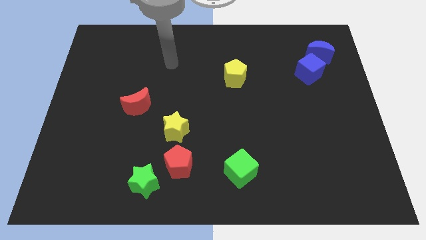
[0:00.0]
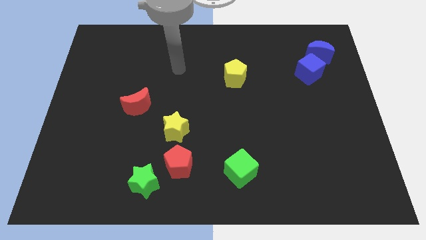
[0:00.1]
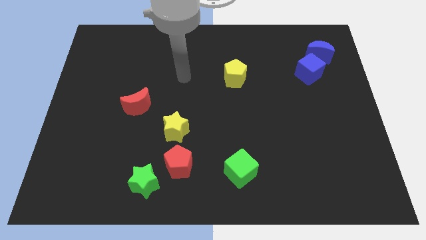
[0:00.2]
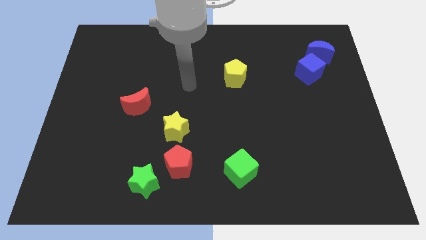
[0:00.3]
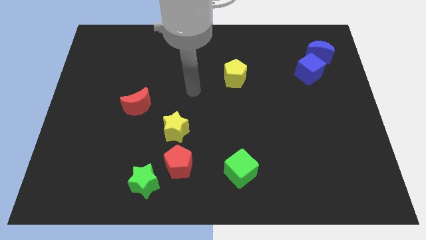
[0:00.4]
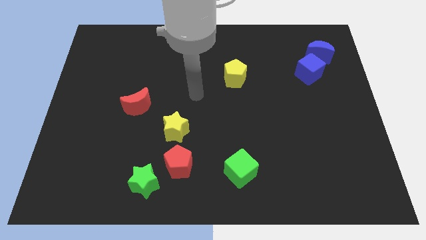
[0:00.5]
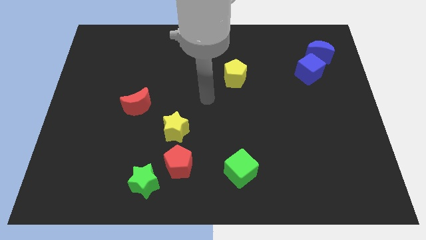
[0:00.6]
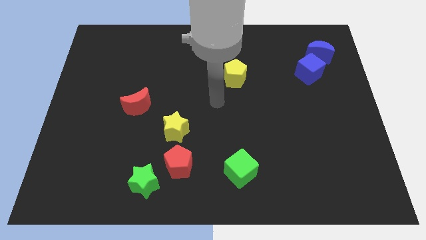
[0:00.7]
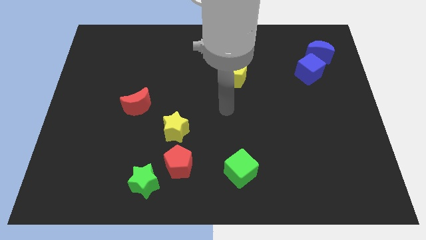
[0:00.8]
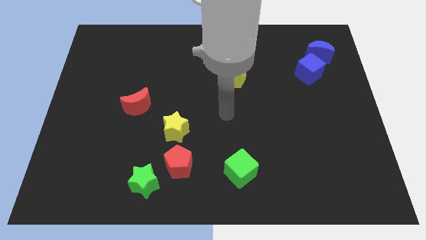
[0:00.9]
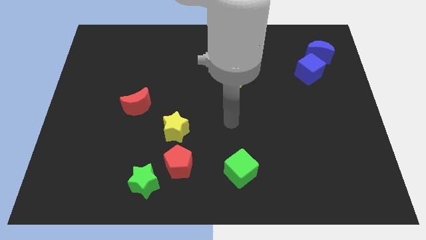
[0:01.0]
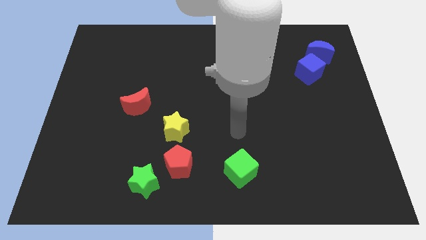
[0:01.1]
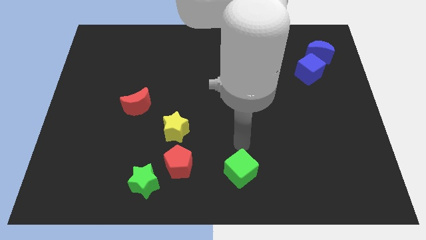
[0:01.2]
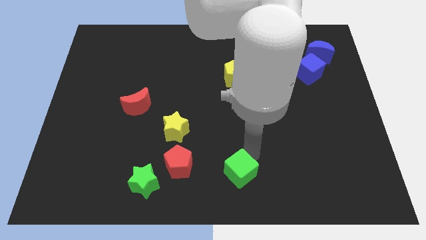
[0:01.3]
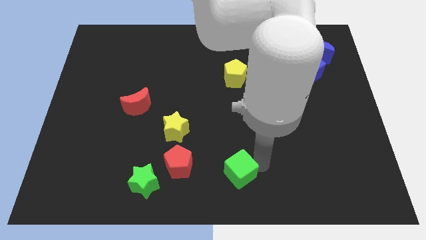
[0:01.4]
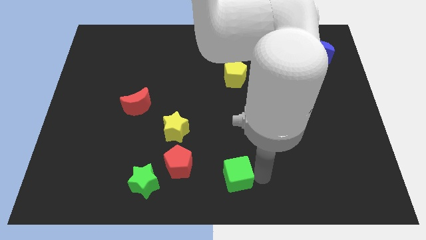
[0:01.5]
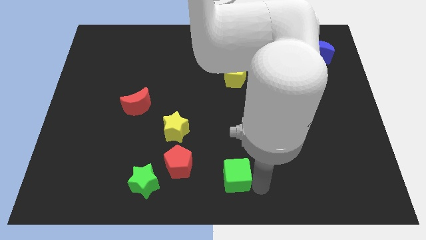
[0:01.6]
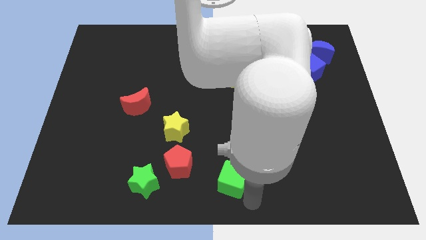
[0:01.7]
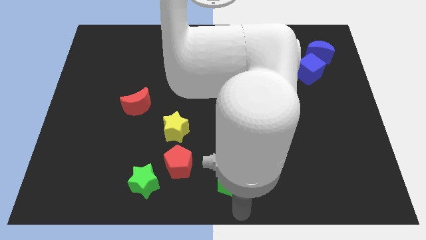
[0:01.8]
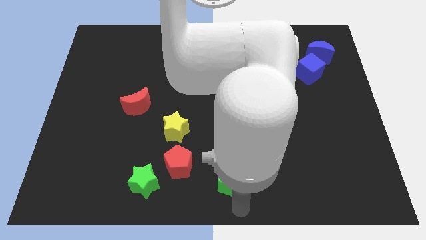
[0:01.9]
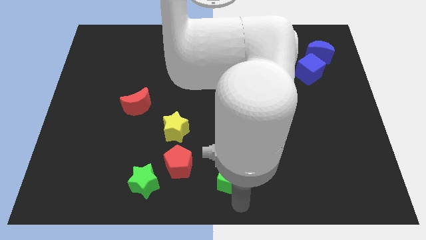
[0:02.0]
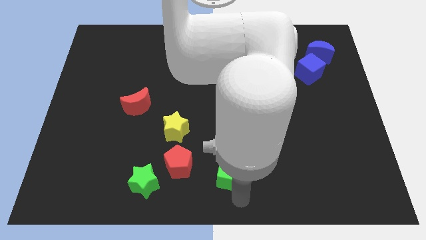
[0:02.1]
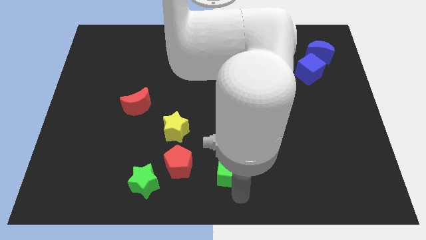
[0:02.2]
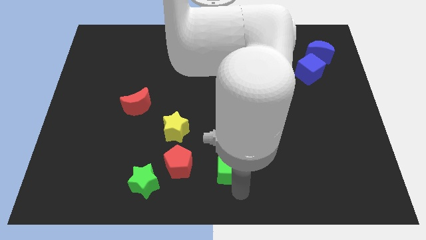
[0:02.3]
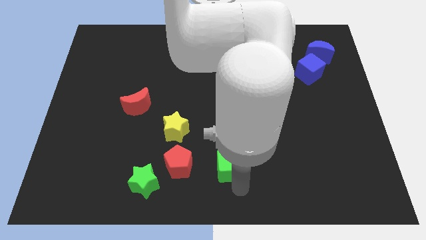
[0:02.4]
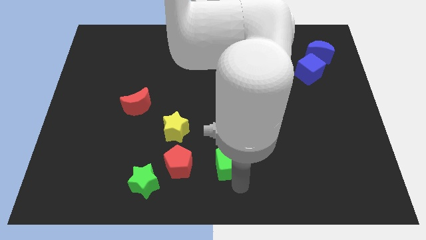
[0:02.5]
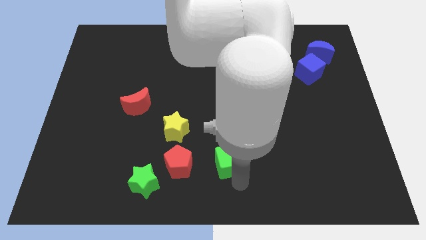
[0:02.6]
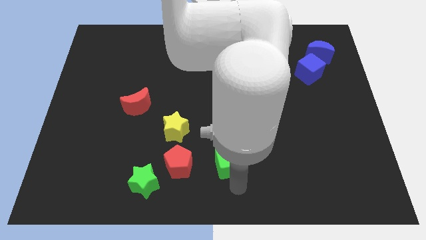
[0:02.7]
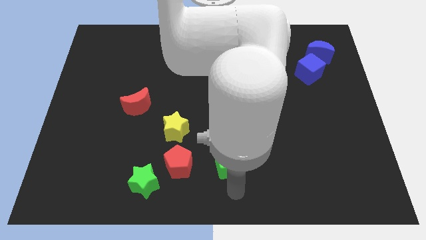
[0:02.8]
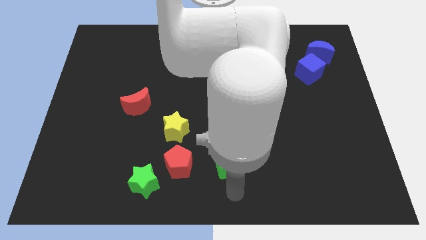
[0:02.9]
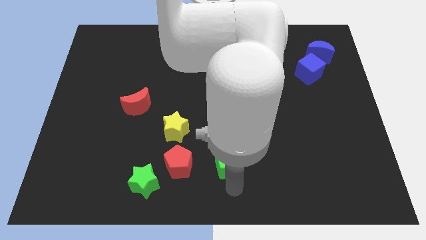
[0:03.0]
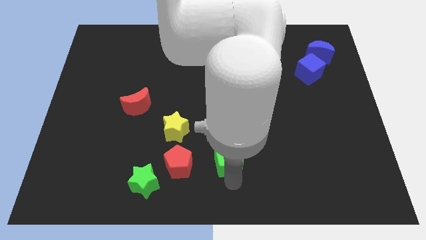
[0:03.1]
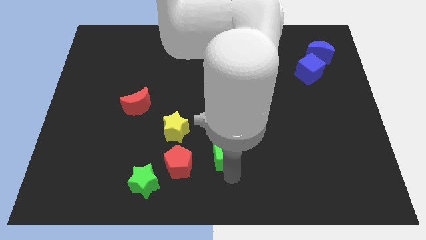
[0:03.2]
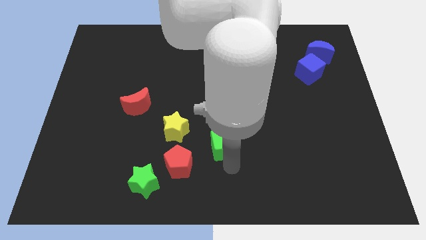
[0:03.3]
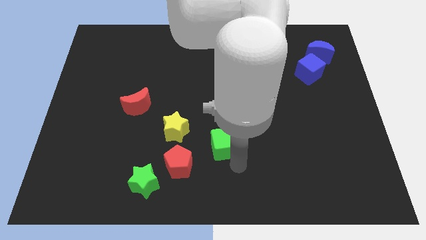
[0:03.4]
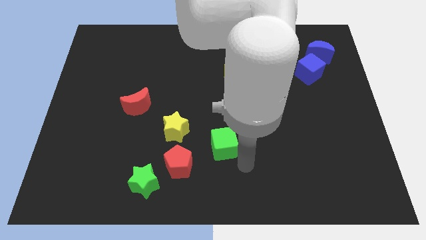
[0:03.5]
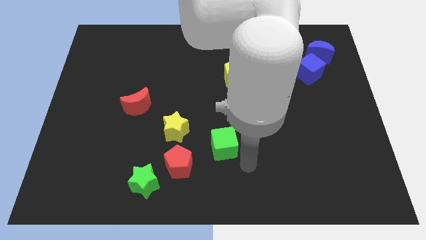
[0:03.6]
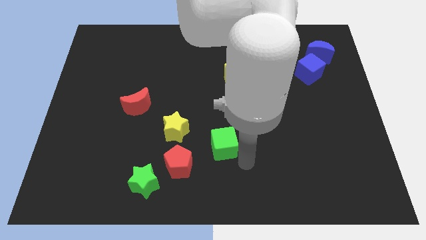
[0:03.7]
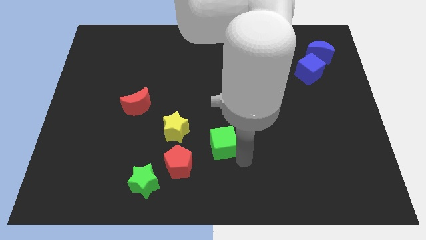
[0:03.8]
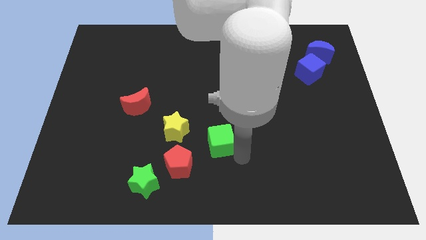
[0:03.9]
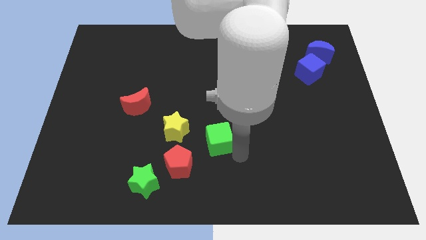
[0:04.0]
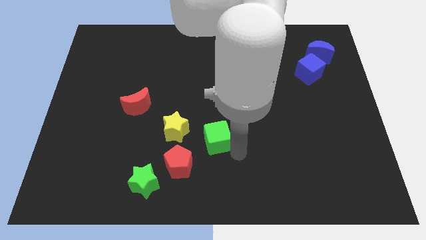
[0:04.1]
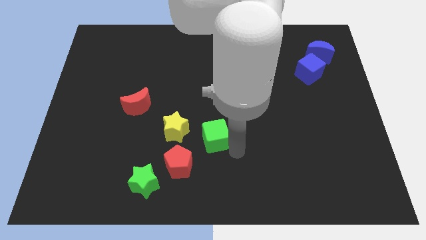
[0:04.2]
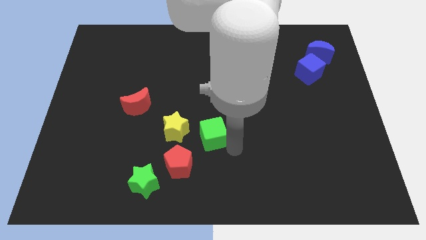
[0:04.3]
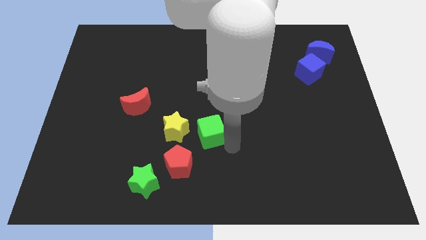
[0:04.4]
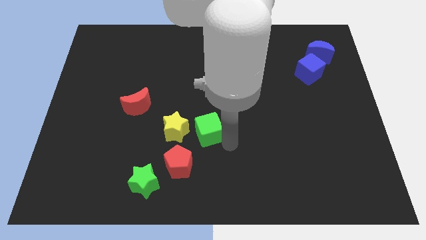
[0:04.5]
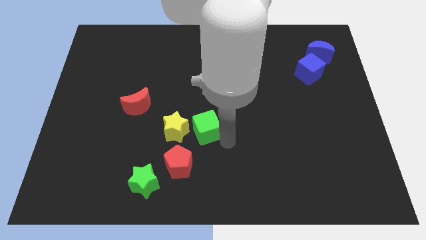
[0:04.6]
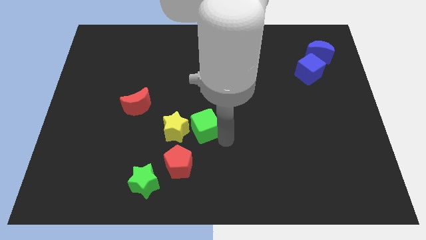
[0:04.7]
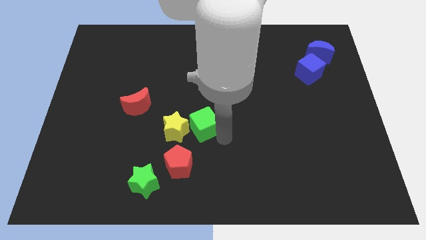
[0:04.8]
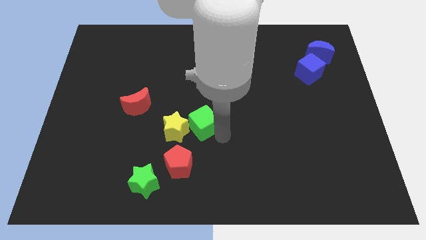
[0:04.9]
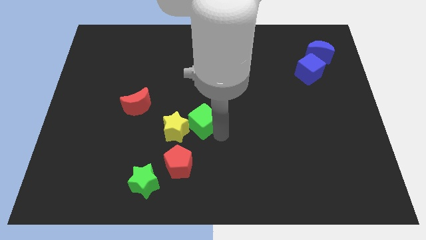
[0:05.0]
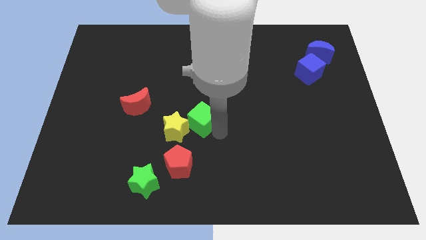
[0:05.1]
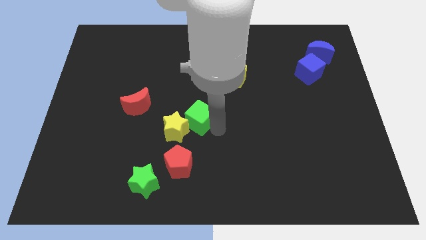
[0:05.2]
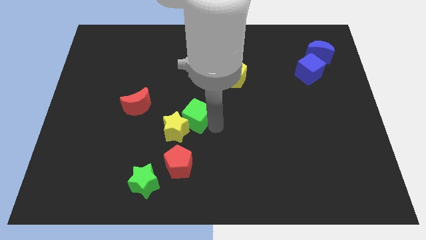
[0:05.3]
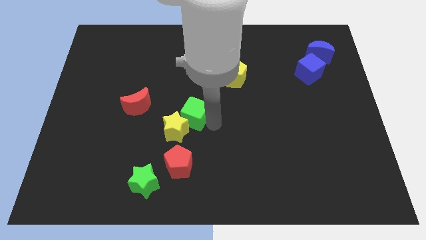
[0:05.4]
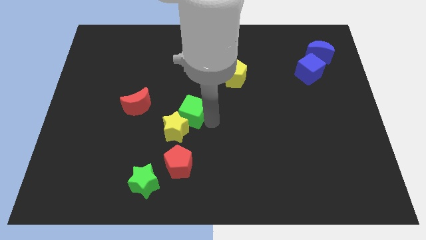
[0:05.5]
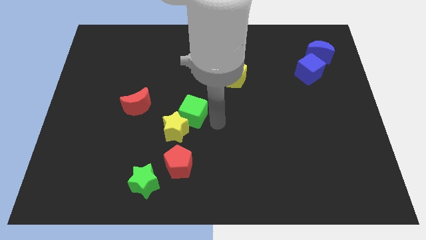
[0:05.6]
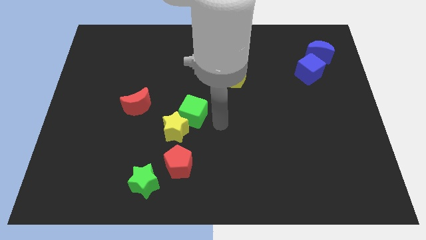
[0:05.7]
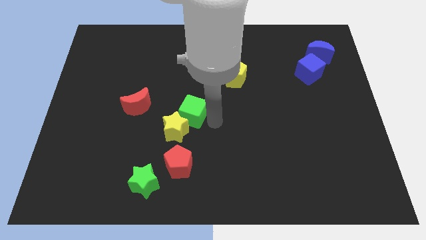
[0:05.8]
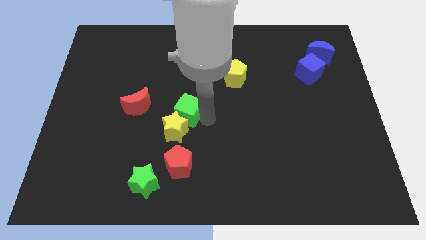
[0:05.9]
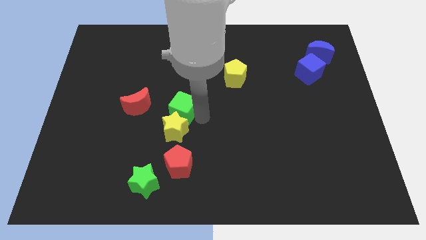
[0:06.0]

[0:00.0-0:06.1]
slide the green cube up and left diagonally

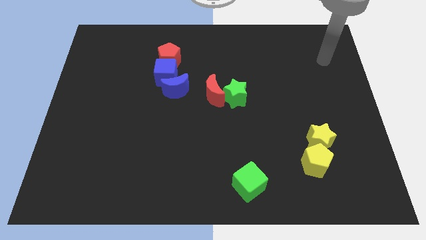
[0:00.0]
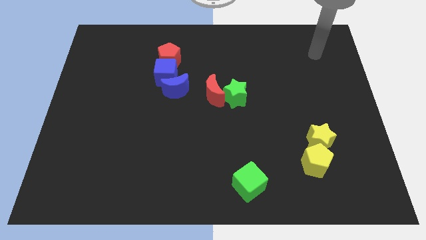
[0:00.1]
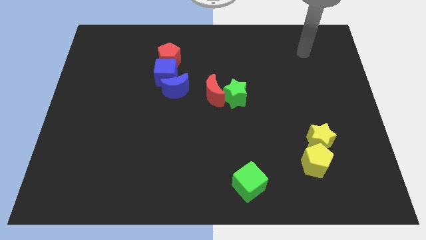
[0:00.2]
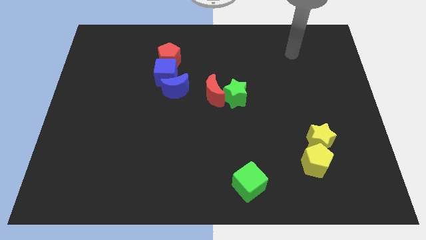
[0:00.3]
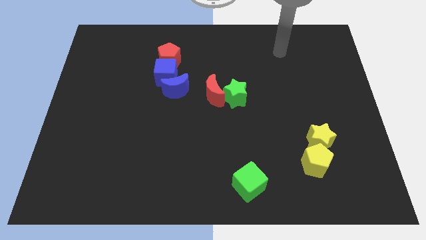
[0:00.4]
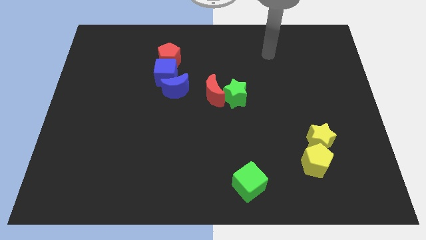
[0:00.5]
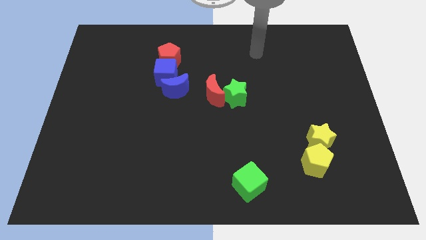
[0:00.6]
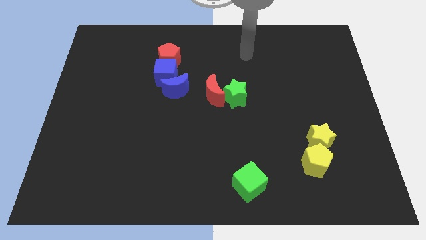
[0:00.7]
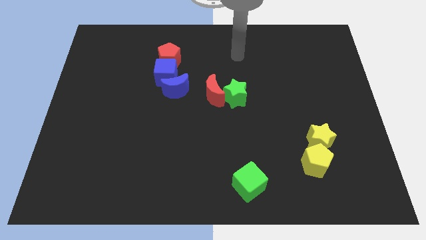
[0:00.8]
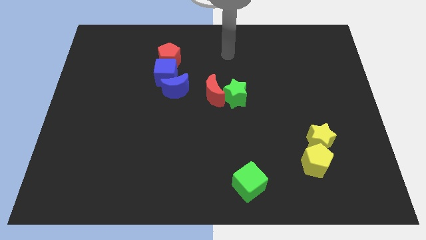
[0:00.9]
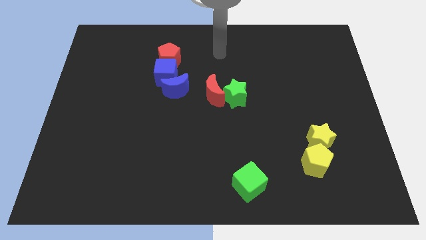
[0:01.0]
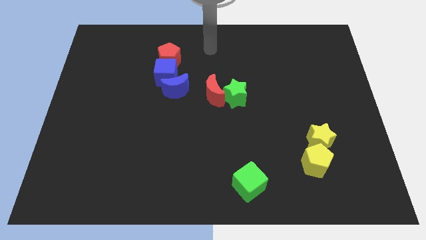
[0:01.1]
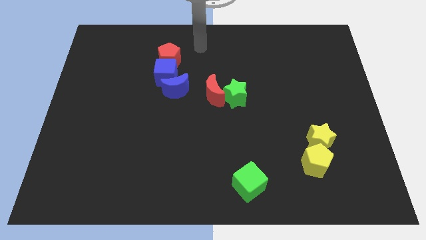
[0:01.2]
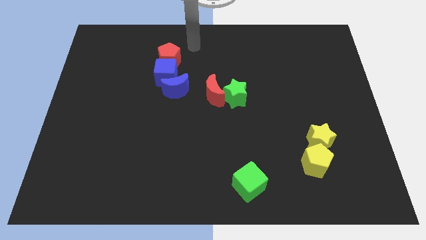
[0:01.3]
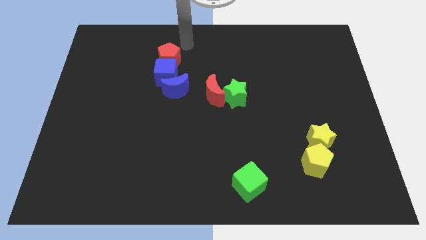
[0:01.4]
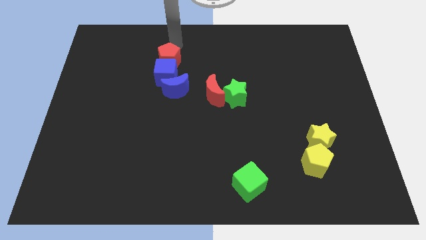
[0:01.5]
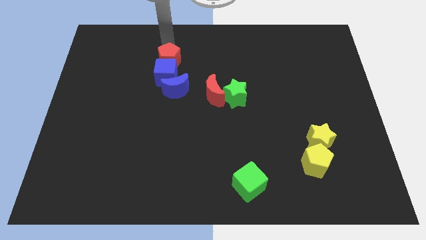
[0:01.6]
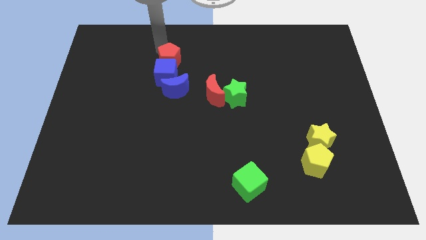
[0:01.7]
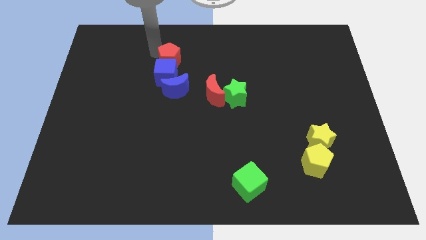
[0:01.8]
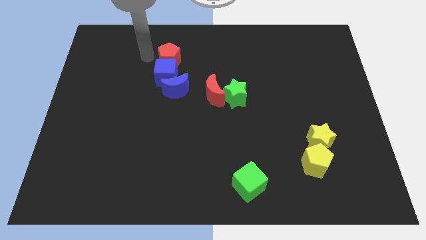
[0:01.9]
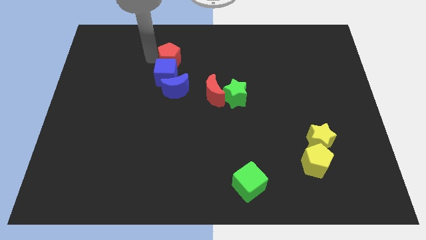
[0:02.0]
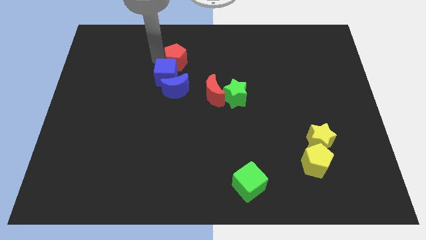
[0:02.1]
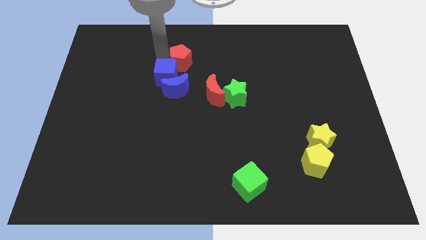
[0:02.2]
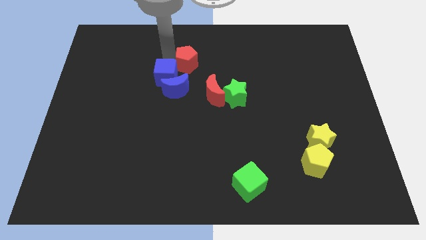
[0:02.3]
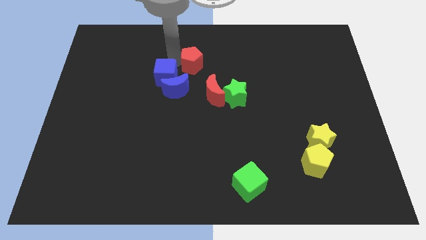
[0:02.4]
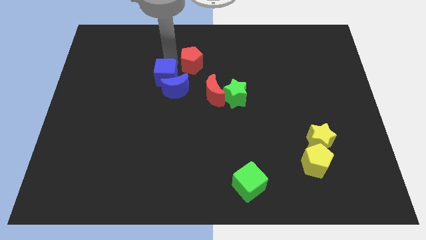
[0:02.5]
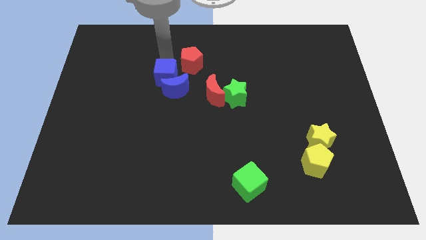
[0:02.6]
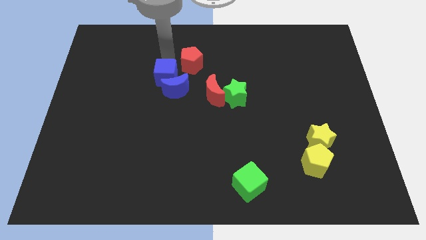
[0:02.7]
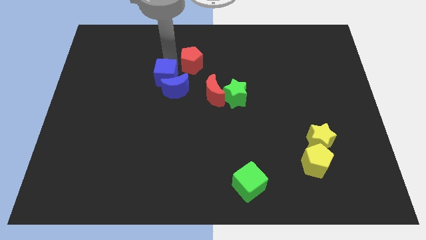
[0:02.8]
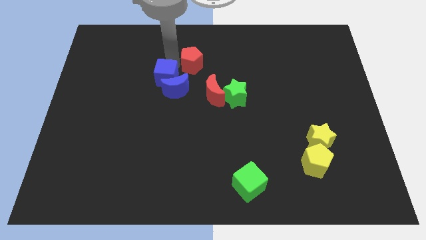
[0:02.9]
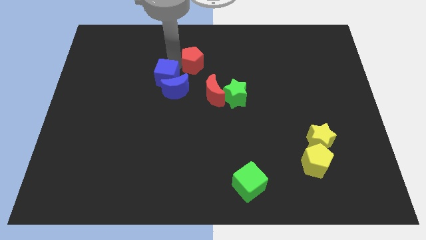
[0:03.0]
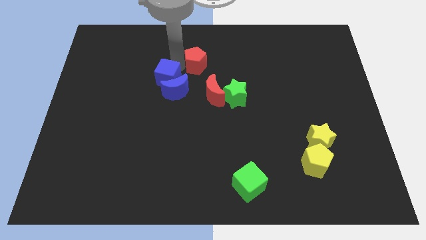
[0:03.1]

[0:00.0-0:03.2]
slightly push the red pentagon to the right
